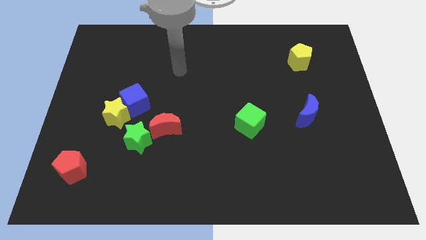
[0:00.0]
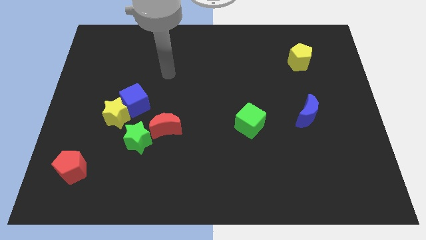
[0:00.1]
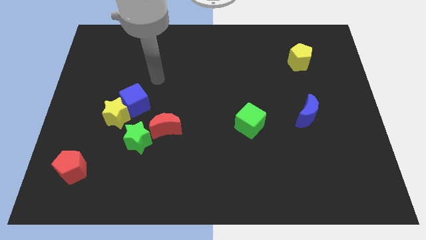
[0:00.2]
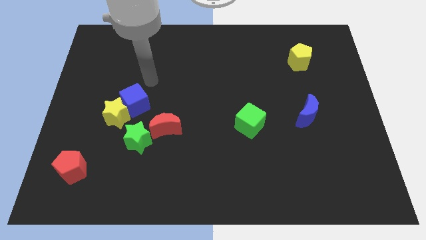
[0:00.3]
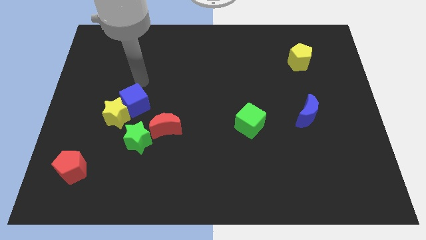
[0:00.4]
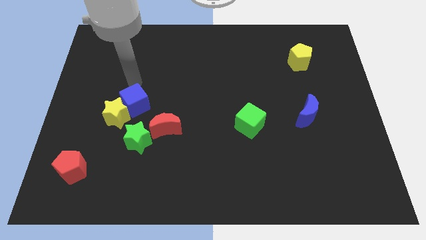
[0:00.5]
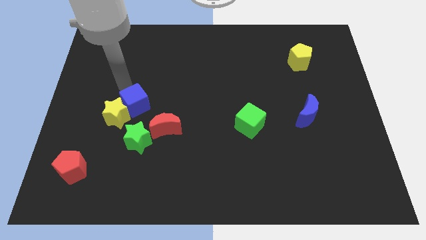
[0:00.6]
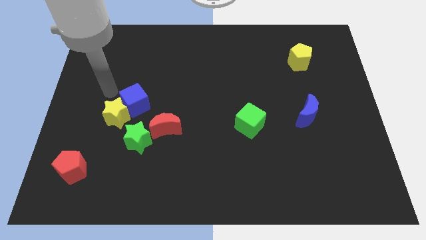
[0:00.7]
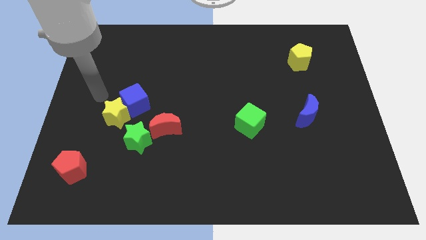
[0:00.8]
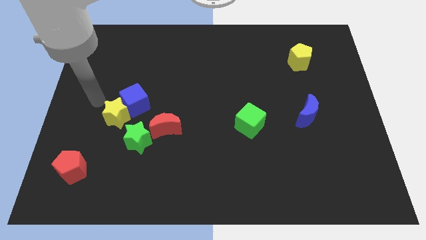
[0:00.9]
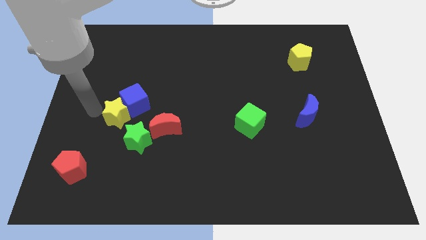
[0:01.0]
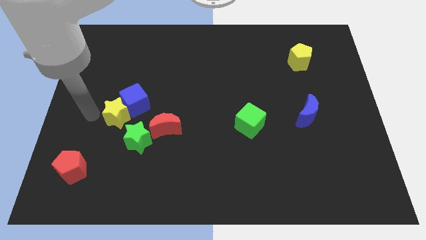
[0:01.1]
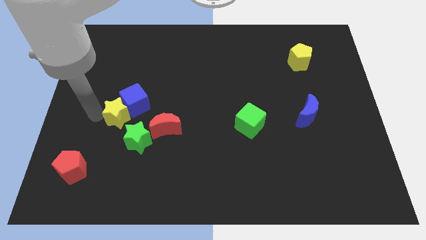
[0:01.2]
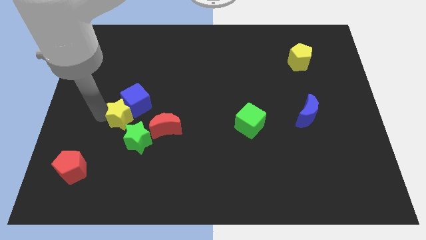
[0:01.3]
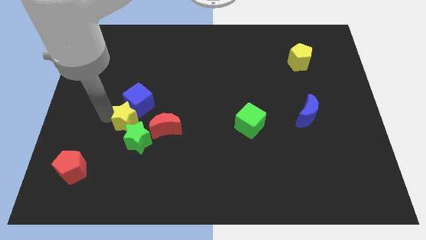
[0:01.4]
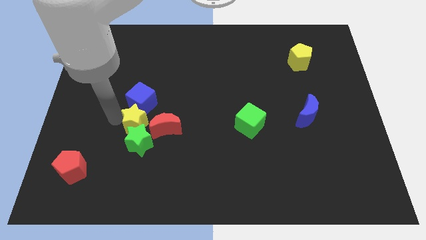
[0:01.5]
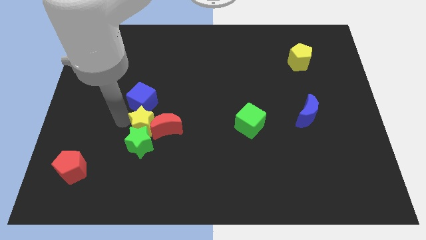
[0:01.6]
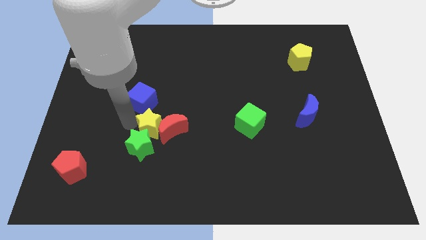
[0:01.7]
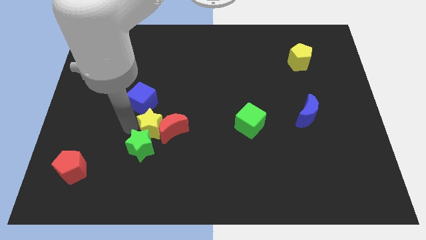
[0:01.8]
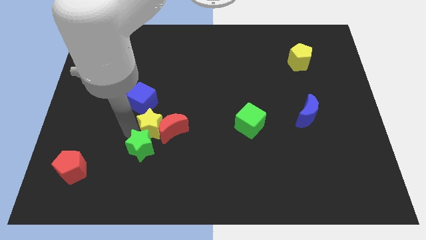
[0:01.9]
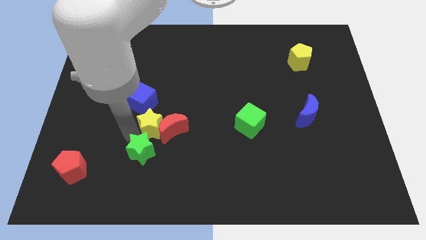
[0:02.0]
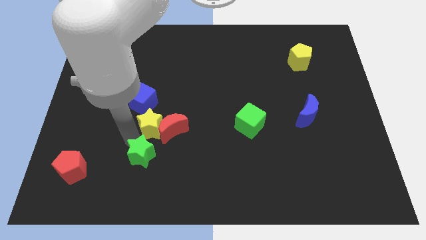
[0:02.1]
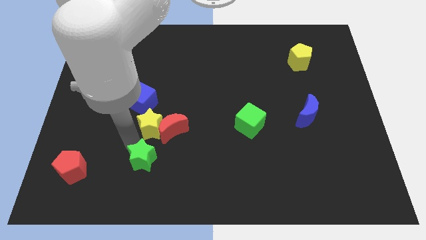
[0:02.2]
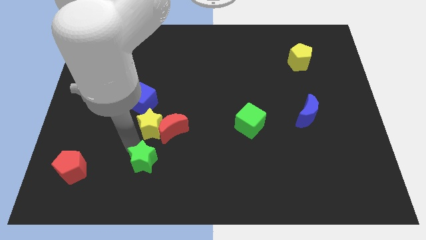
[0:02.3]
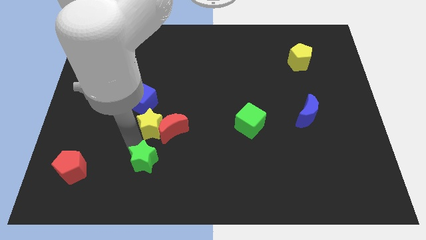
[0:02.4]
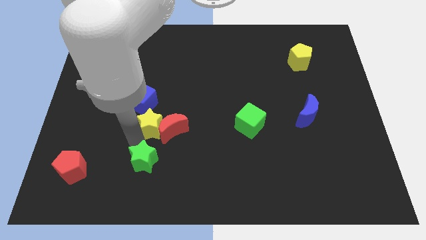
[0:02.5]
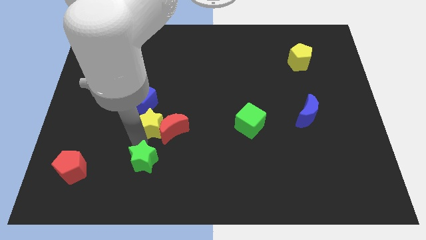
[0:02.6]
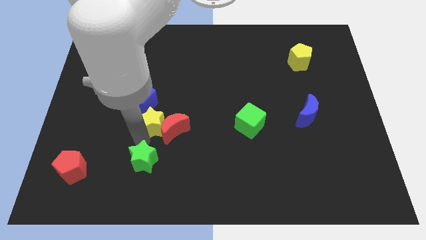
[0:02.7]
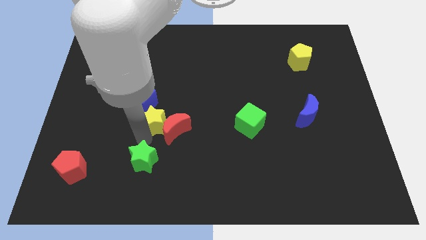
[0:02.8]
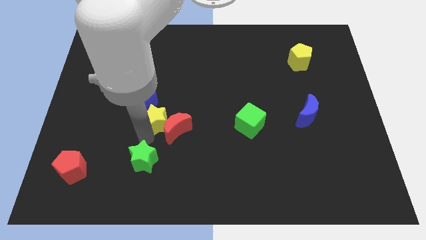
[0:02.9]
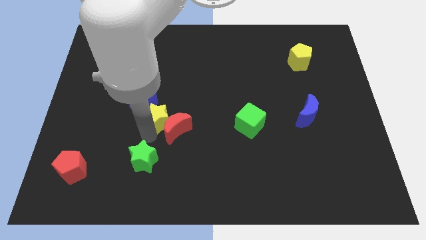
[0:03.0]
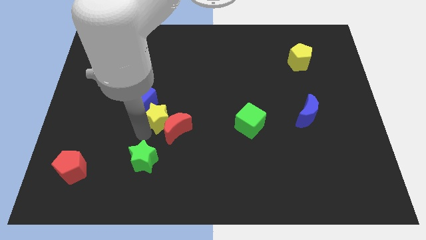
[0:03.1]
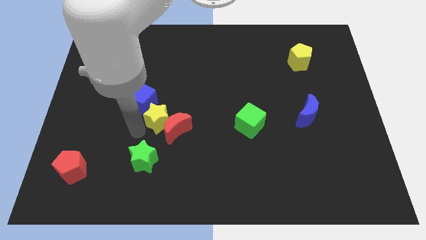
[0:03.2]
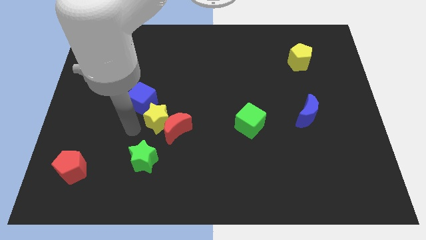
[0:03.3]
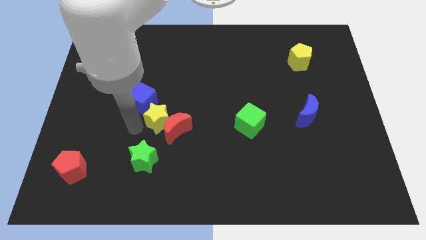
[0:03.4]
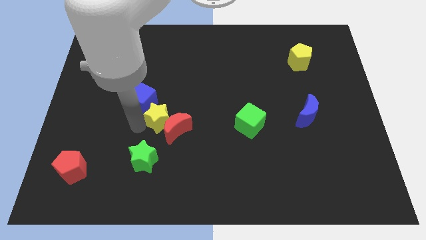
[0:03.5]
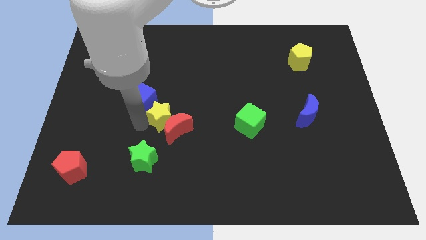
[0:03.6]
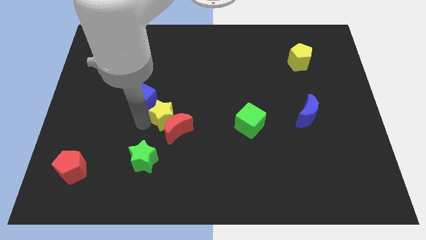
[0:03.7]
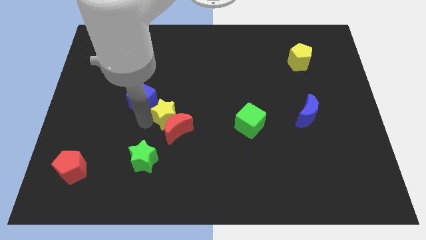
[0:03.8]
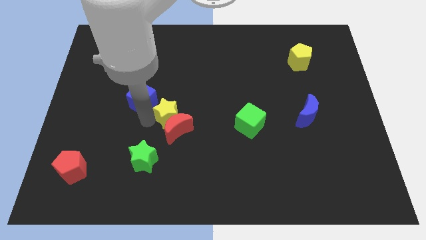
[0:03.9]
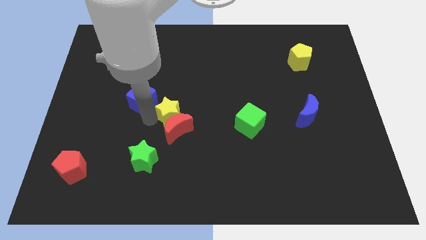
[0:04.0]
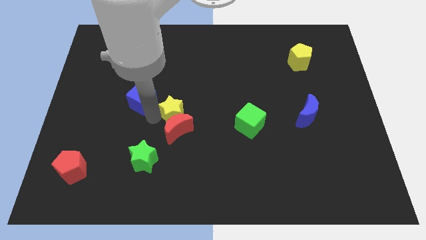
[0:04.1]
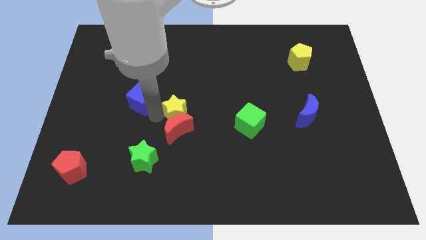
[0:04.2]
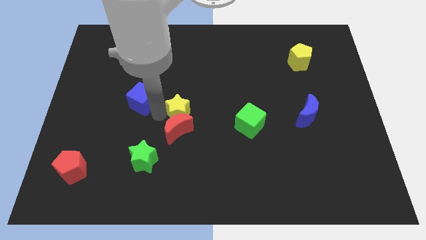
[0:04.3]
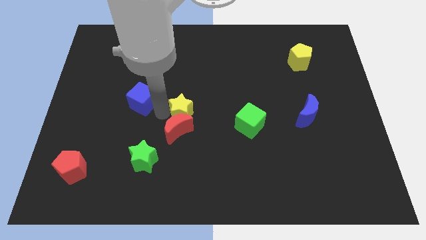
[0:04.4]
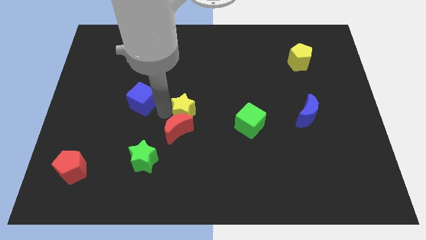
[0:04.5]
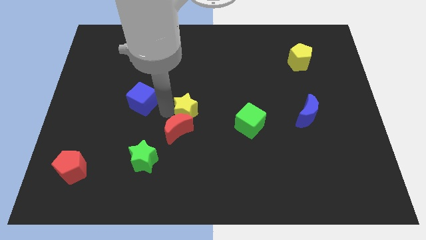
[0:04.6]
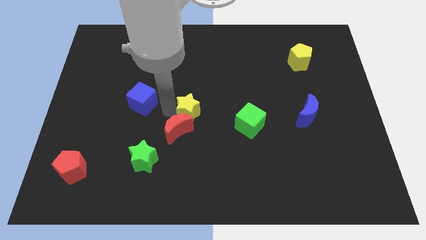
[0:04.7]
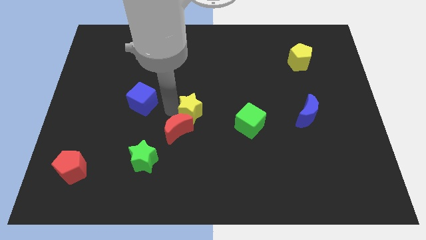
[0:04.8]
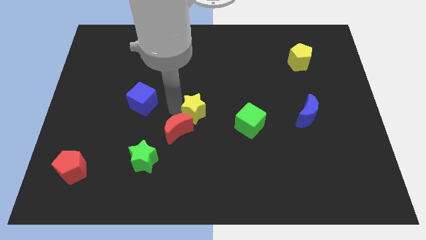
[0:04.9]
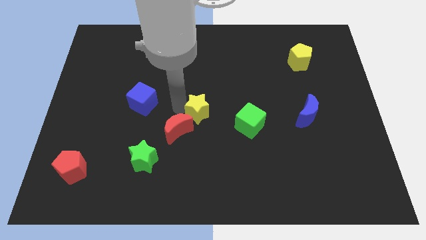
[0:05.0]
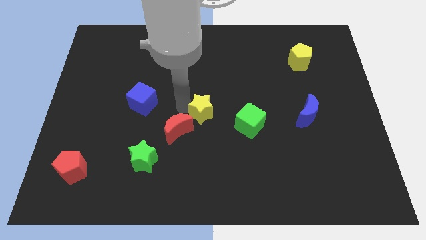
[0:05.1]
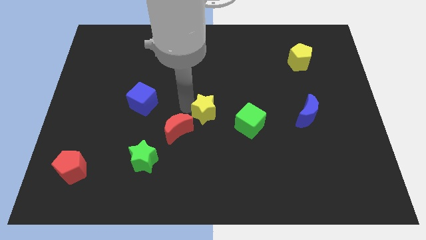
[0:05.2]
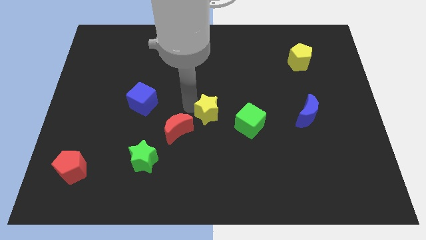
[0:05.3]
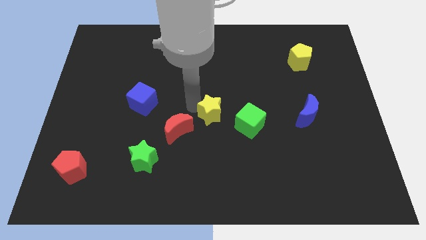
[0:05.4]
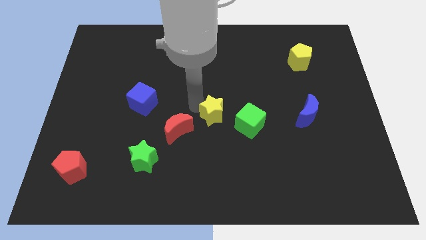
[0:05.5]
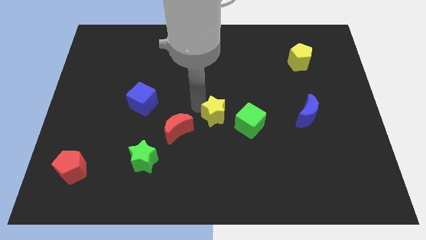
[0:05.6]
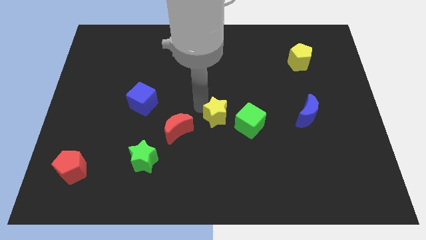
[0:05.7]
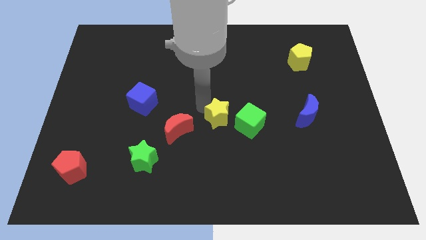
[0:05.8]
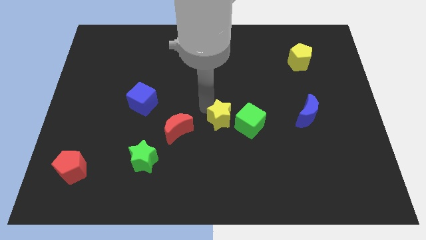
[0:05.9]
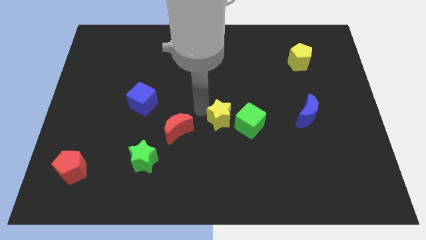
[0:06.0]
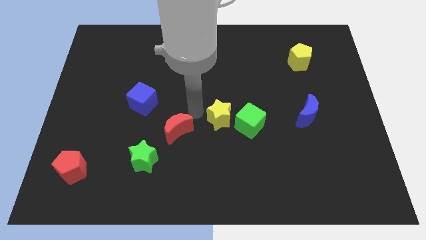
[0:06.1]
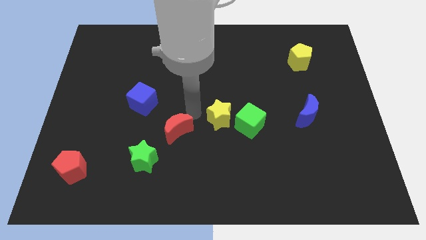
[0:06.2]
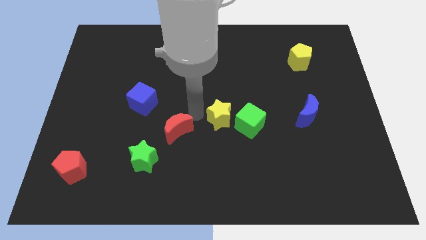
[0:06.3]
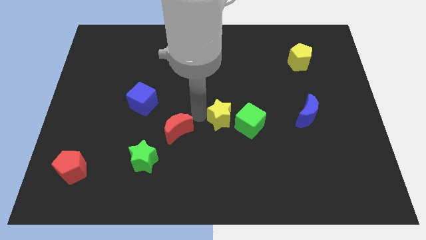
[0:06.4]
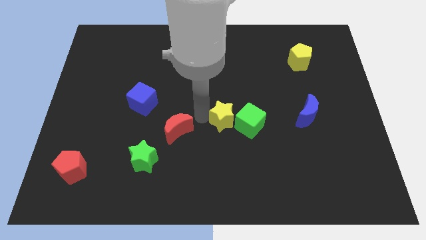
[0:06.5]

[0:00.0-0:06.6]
push the yellow star next to the green cube
